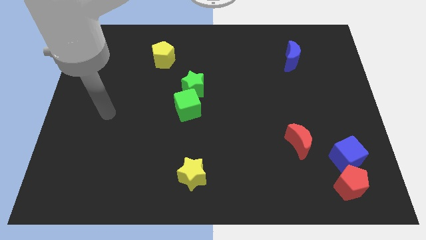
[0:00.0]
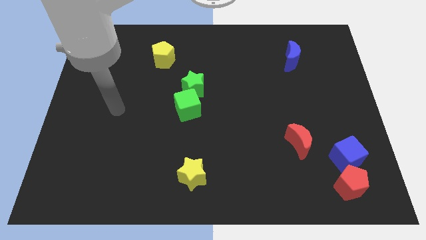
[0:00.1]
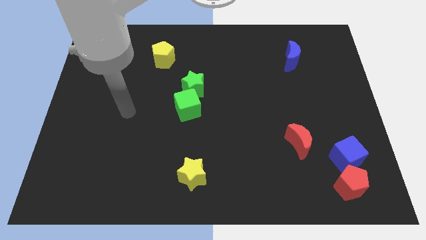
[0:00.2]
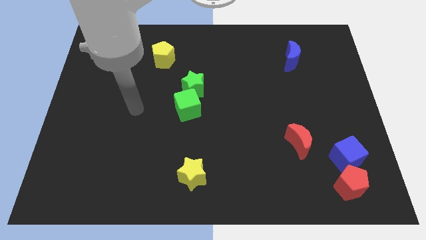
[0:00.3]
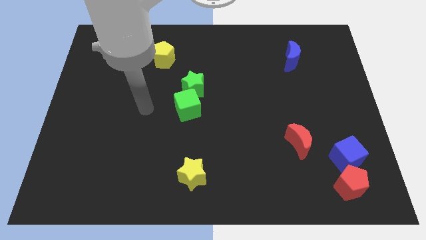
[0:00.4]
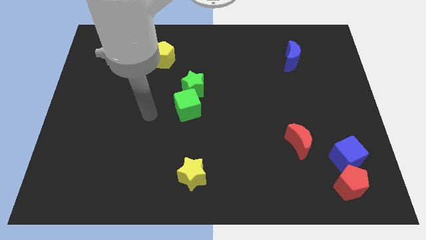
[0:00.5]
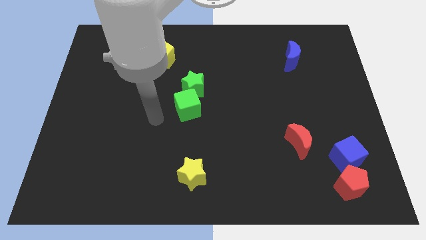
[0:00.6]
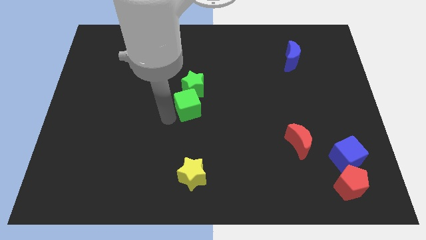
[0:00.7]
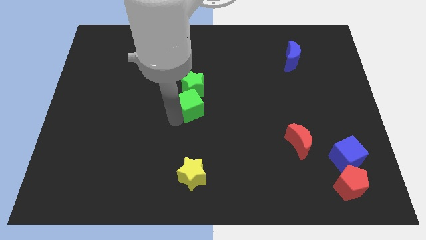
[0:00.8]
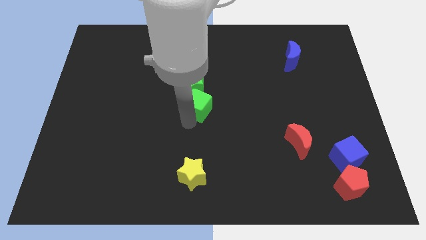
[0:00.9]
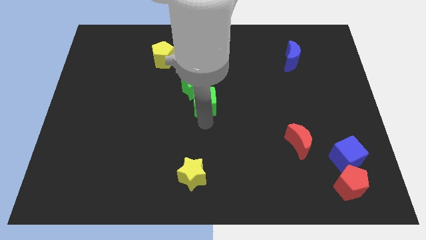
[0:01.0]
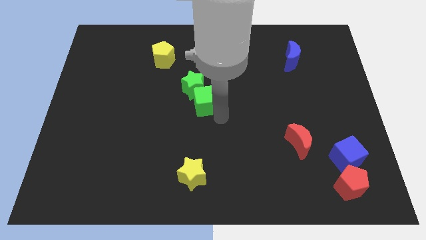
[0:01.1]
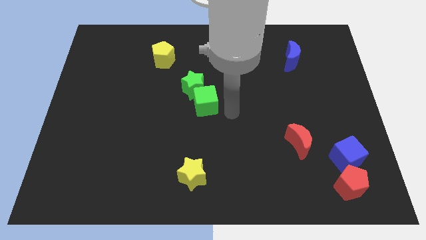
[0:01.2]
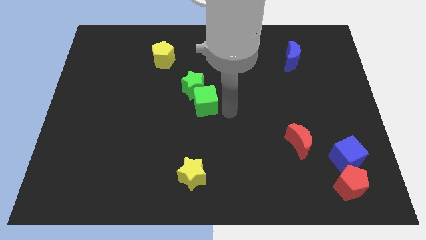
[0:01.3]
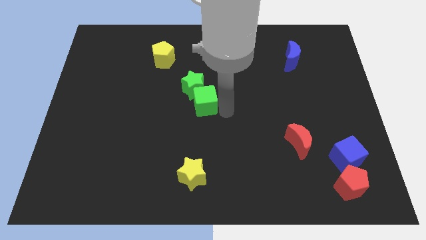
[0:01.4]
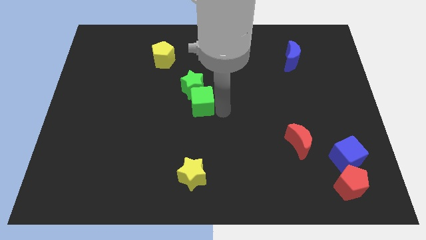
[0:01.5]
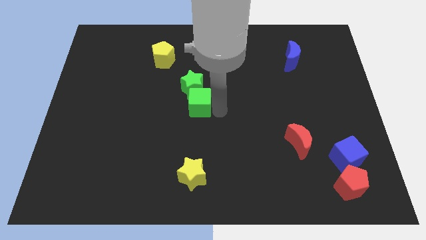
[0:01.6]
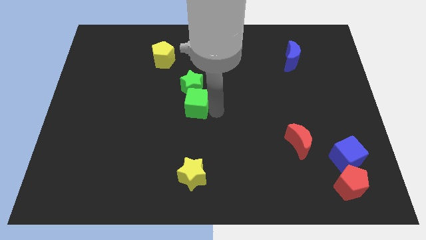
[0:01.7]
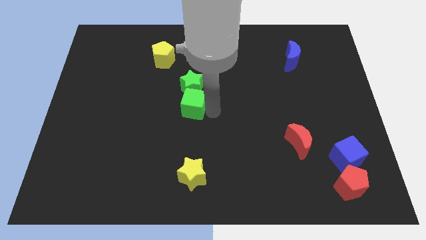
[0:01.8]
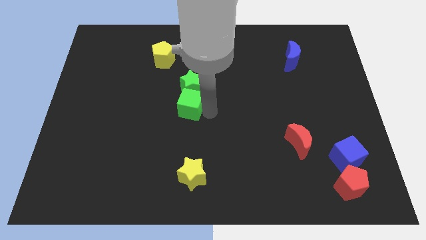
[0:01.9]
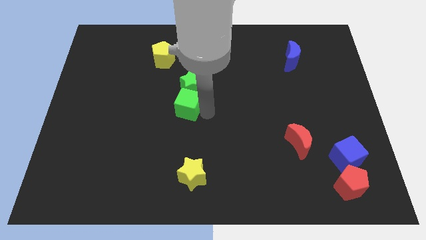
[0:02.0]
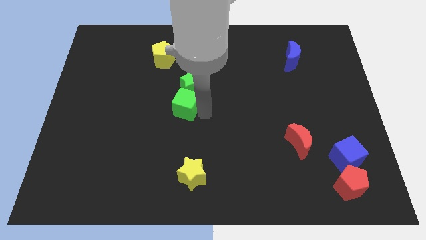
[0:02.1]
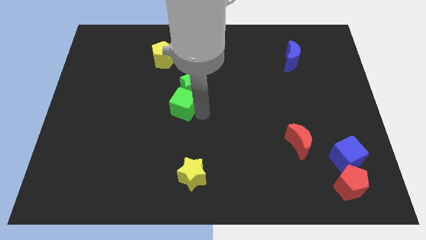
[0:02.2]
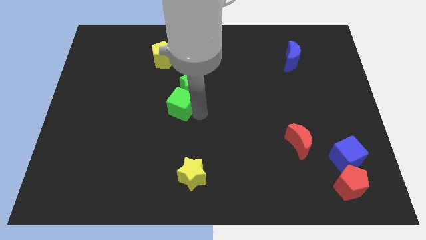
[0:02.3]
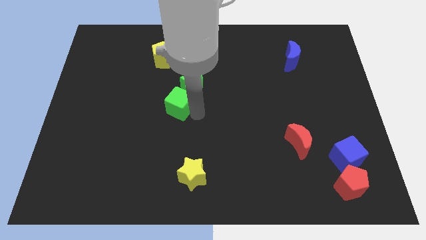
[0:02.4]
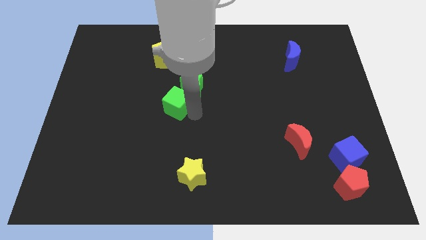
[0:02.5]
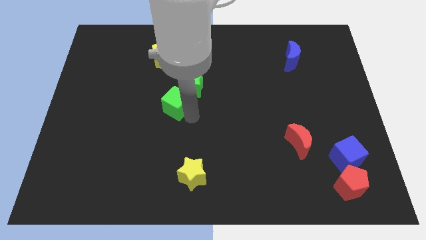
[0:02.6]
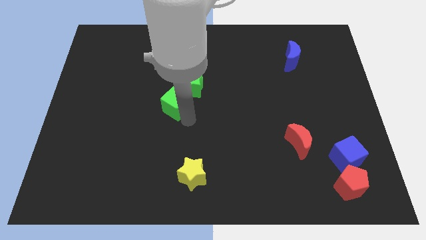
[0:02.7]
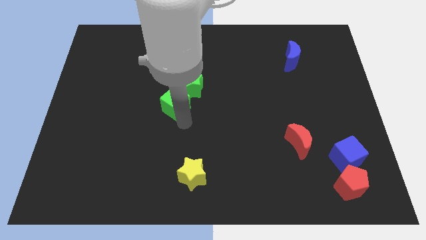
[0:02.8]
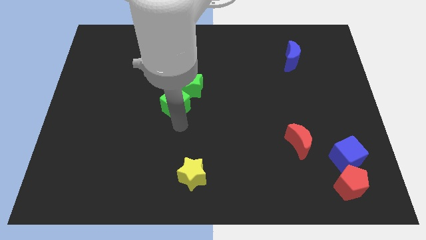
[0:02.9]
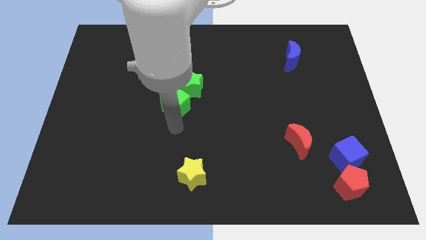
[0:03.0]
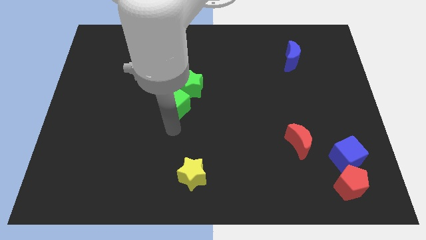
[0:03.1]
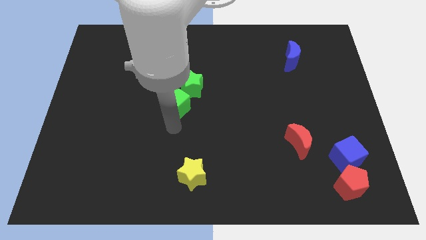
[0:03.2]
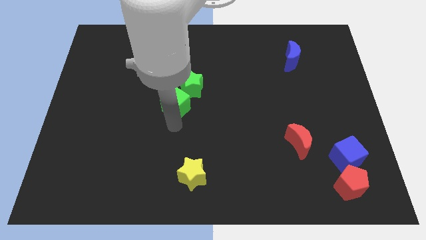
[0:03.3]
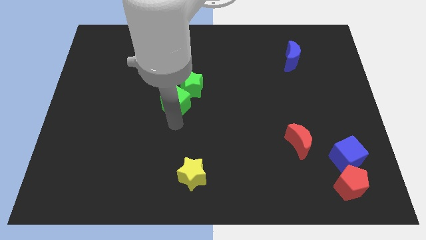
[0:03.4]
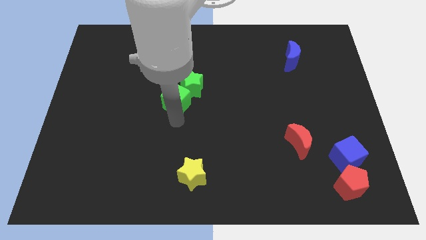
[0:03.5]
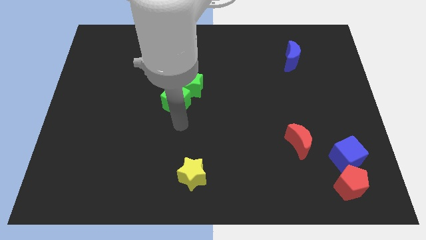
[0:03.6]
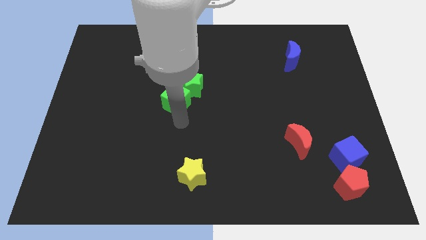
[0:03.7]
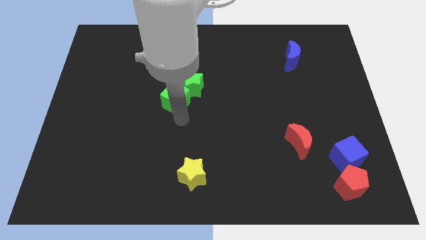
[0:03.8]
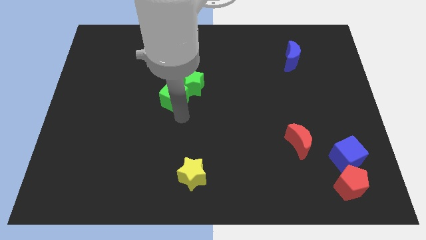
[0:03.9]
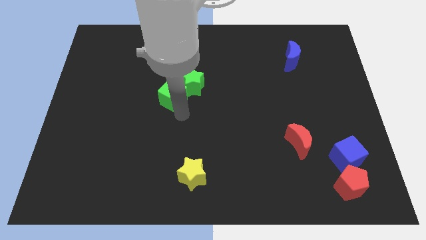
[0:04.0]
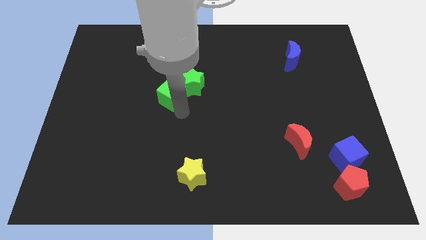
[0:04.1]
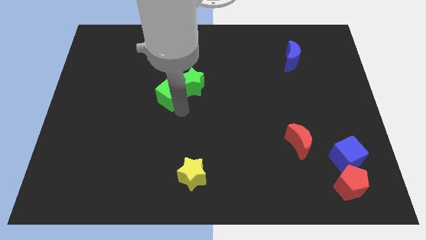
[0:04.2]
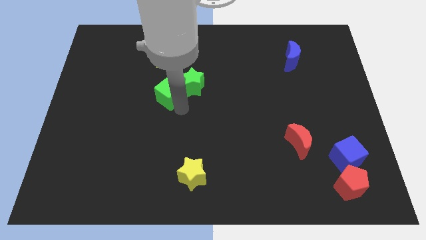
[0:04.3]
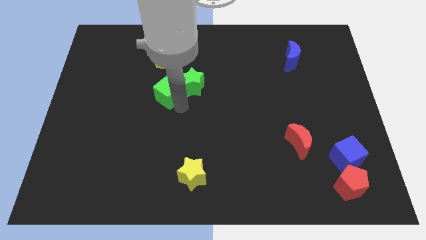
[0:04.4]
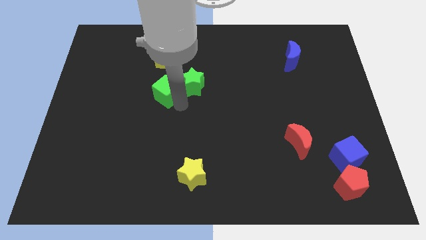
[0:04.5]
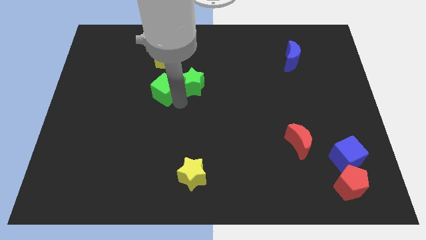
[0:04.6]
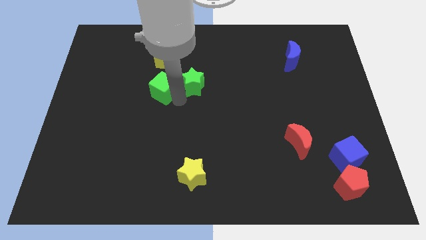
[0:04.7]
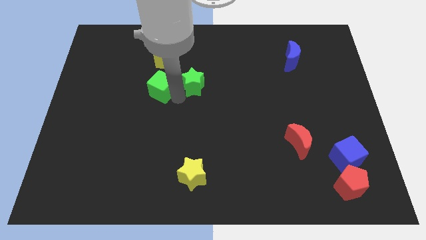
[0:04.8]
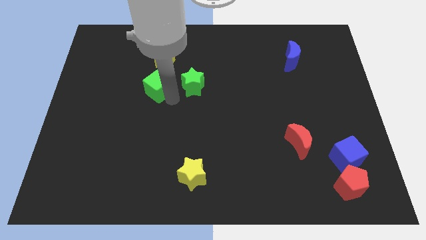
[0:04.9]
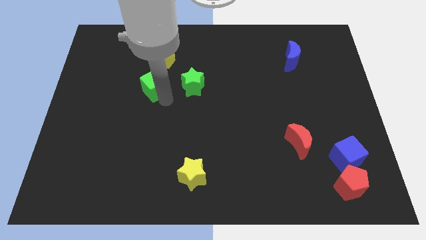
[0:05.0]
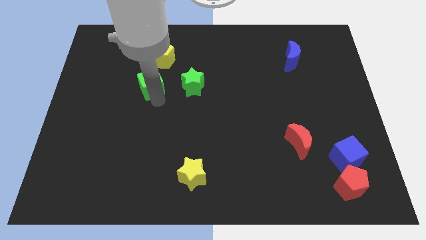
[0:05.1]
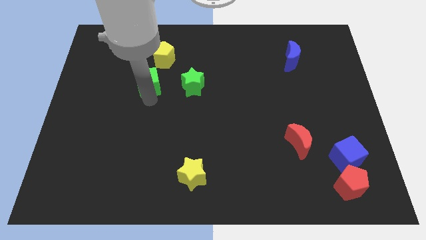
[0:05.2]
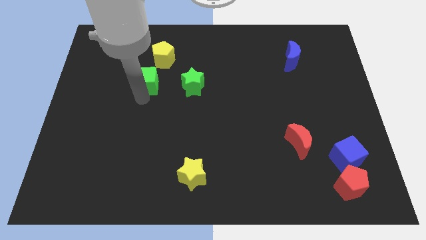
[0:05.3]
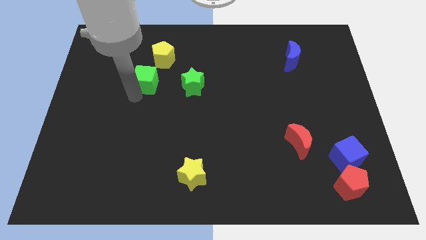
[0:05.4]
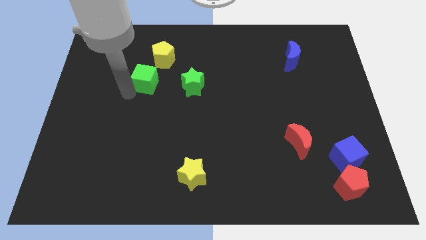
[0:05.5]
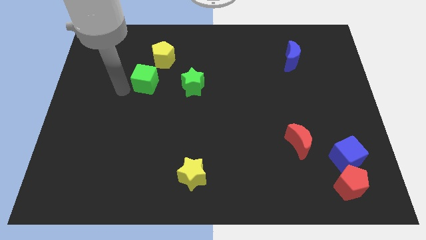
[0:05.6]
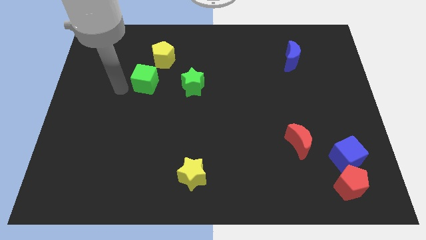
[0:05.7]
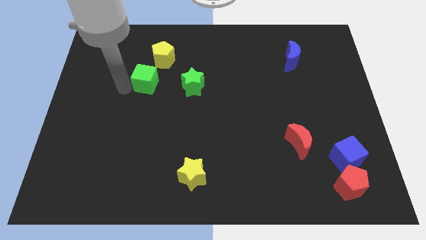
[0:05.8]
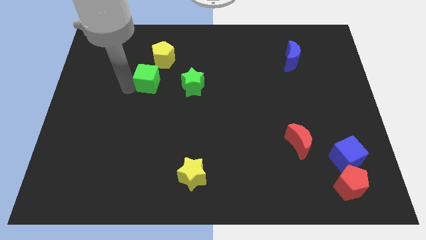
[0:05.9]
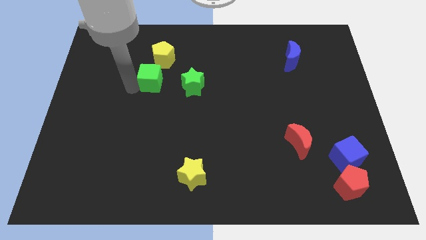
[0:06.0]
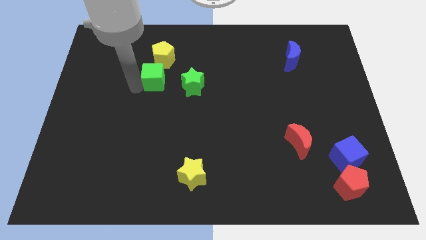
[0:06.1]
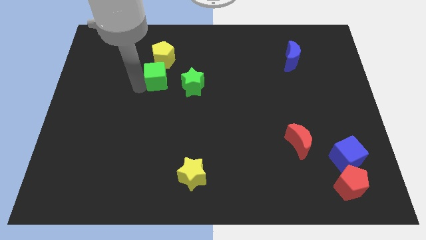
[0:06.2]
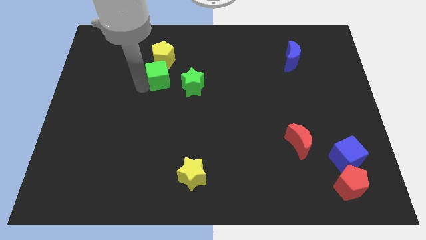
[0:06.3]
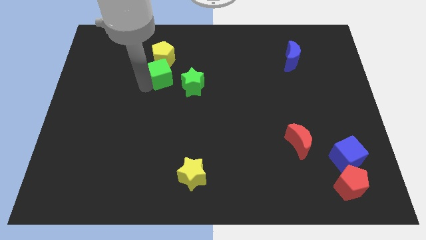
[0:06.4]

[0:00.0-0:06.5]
slide the green cube to the bottom right side of the yellow pentagon

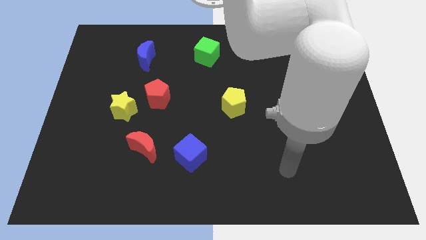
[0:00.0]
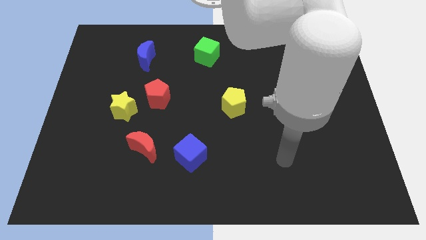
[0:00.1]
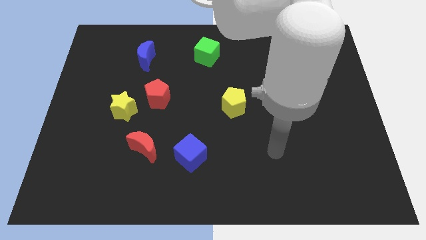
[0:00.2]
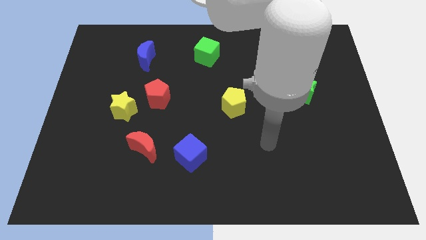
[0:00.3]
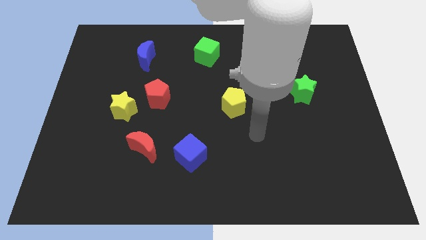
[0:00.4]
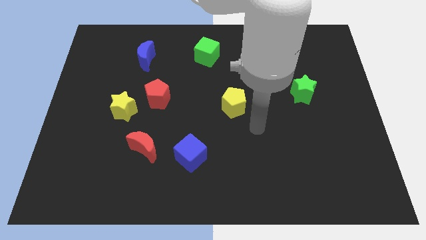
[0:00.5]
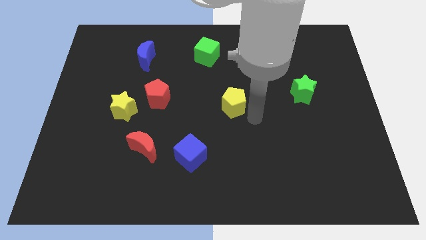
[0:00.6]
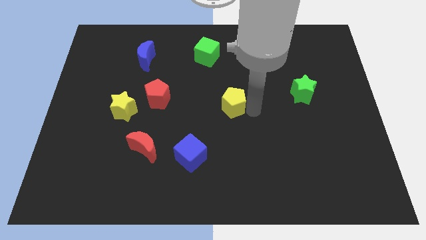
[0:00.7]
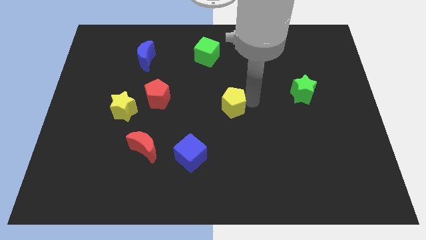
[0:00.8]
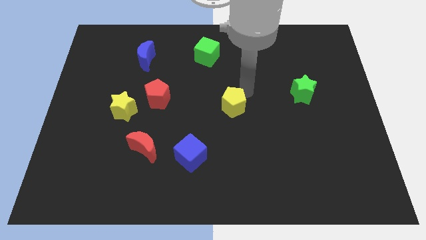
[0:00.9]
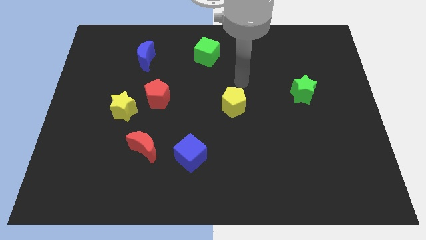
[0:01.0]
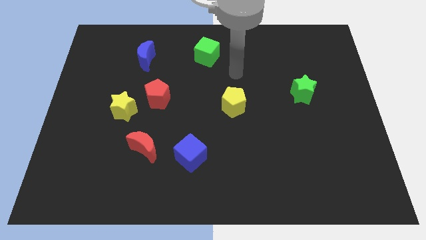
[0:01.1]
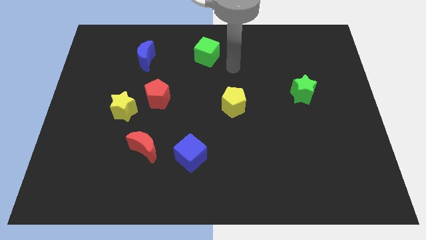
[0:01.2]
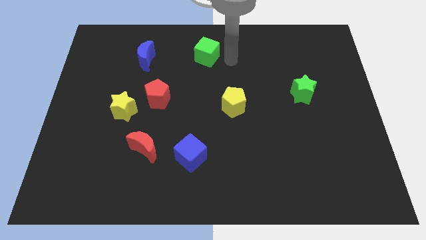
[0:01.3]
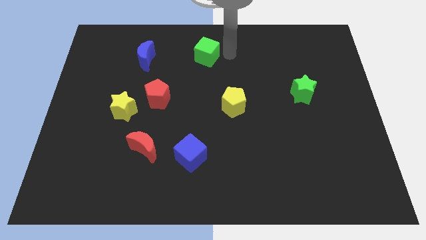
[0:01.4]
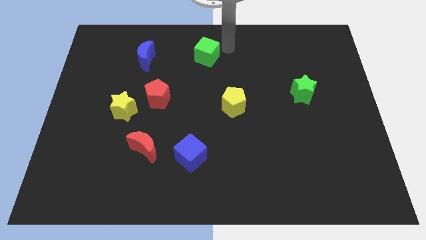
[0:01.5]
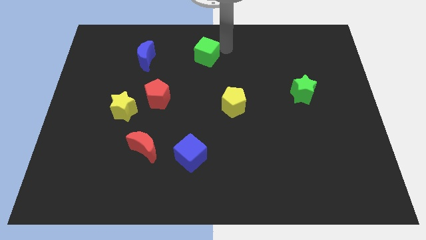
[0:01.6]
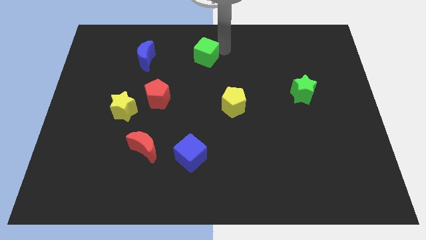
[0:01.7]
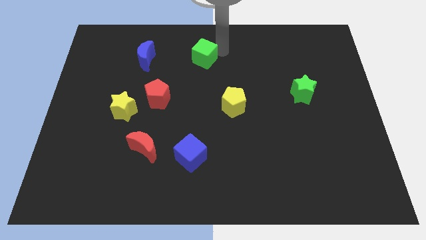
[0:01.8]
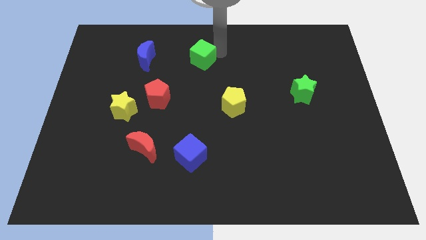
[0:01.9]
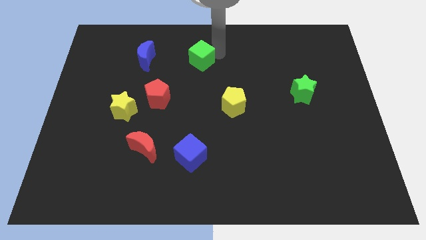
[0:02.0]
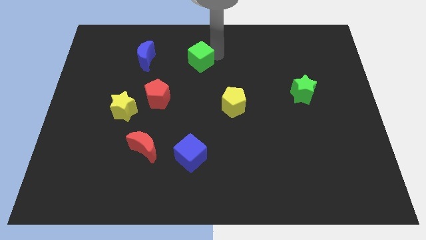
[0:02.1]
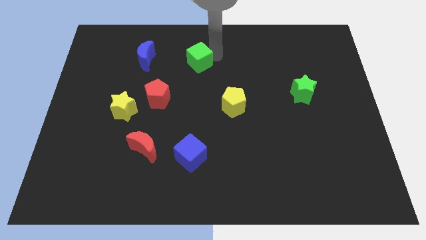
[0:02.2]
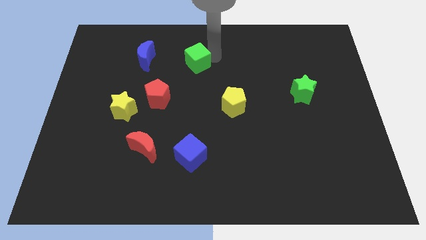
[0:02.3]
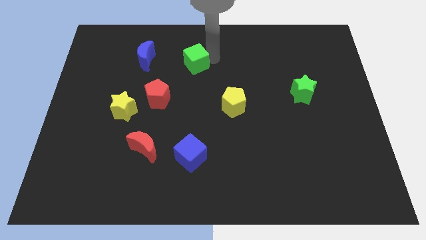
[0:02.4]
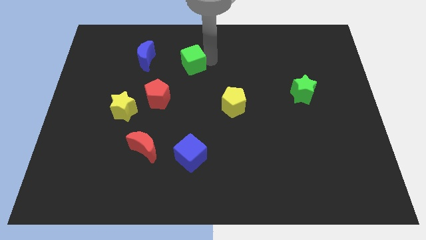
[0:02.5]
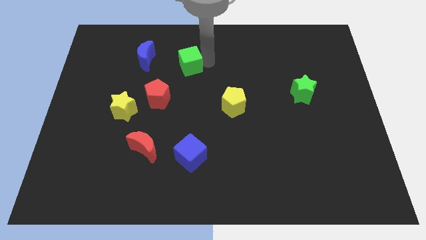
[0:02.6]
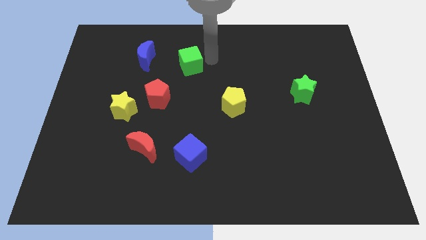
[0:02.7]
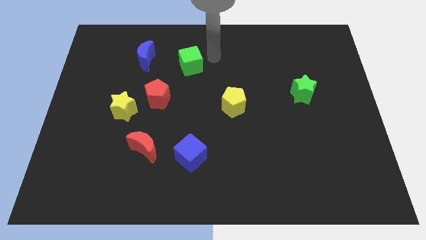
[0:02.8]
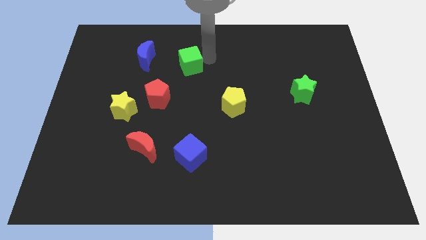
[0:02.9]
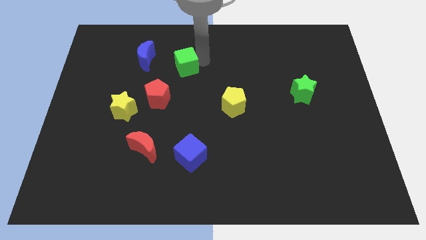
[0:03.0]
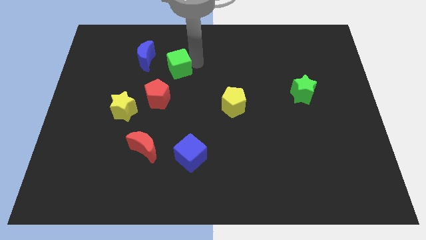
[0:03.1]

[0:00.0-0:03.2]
push the green cube to the bottom right side of the blue moon
